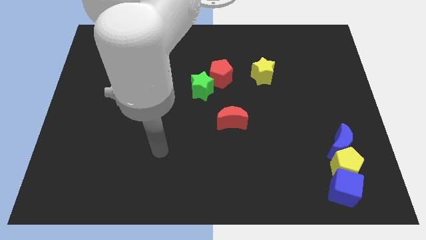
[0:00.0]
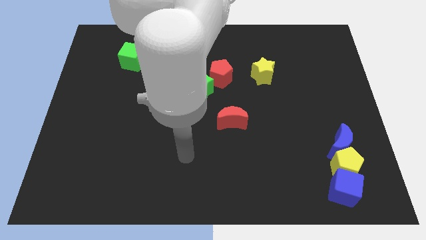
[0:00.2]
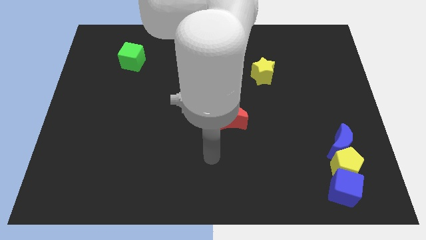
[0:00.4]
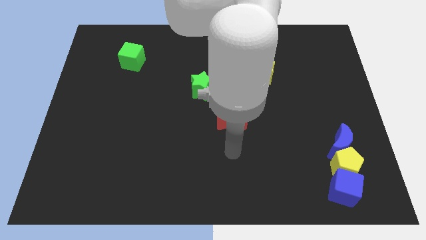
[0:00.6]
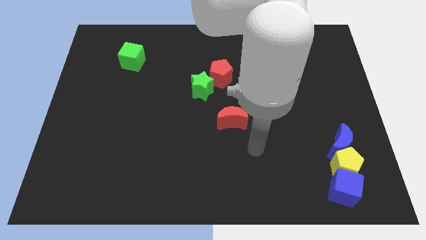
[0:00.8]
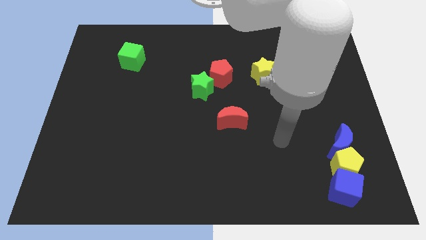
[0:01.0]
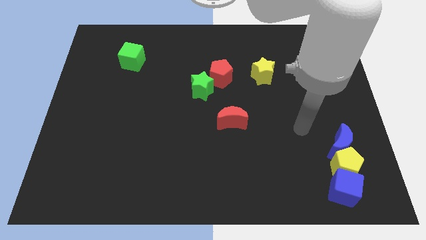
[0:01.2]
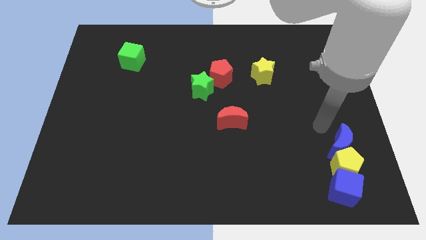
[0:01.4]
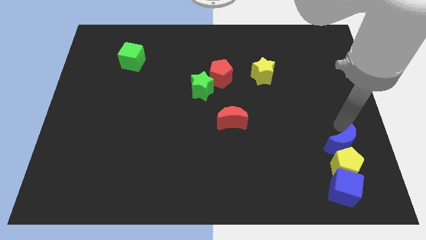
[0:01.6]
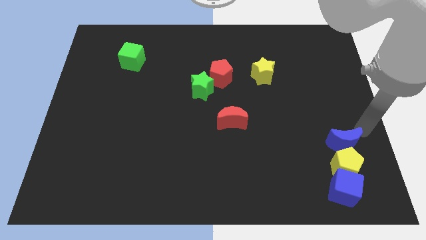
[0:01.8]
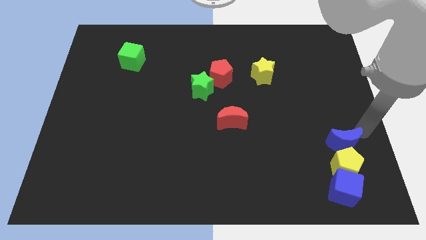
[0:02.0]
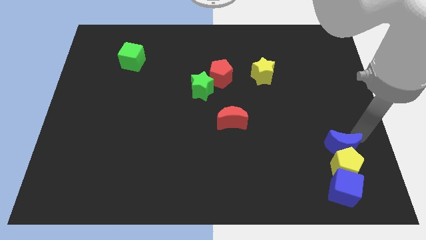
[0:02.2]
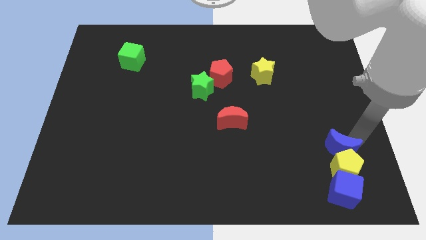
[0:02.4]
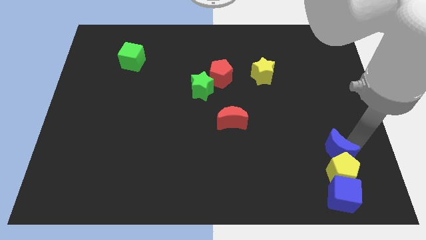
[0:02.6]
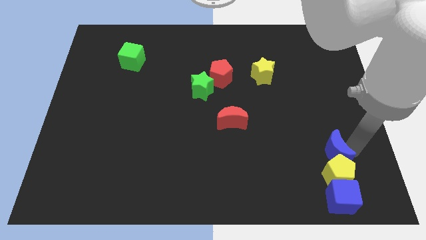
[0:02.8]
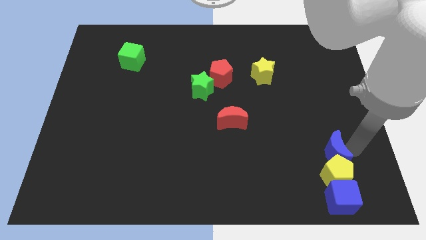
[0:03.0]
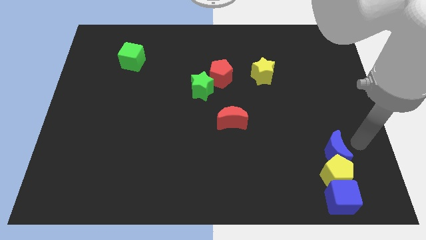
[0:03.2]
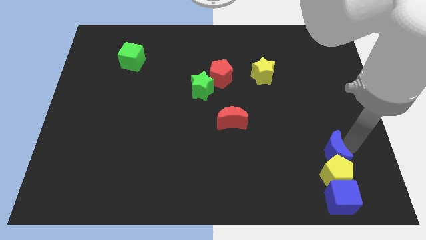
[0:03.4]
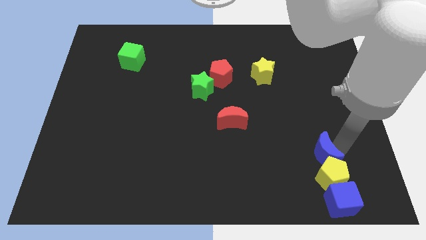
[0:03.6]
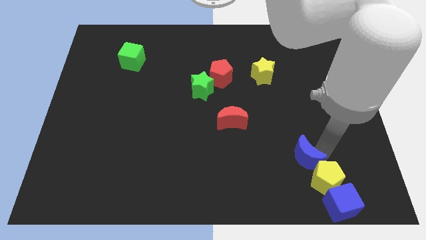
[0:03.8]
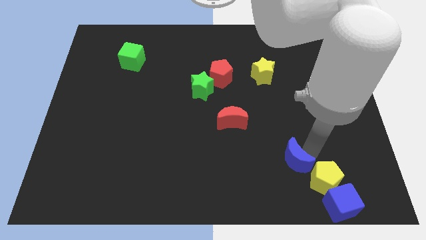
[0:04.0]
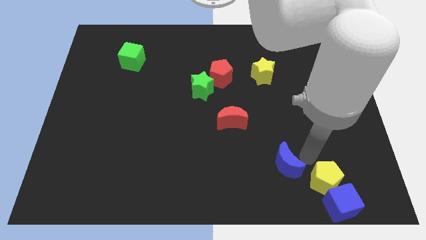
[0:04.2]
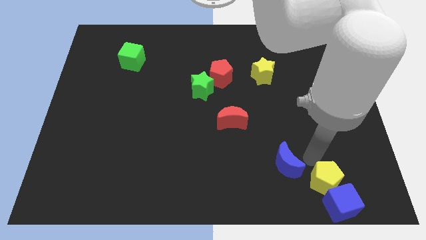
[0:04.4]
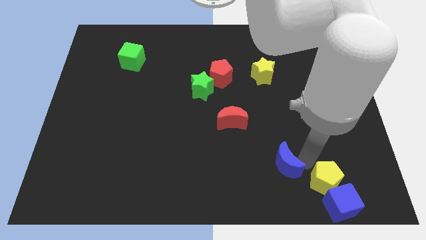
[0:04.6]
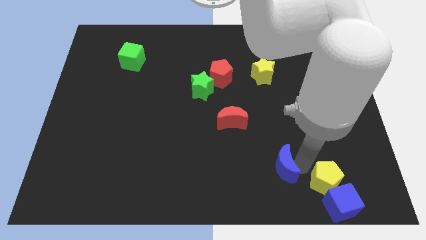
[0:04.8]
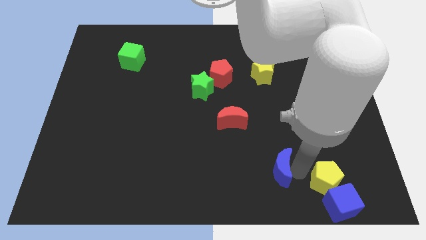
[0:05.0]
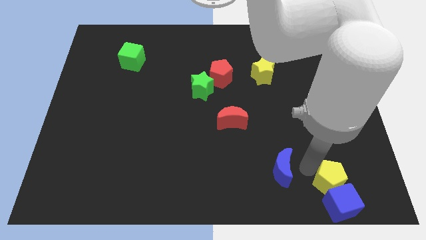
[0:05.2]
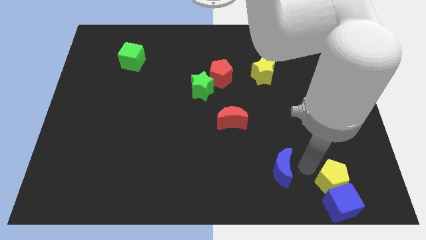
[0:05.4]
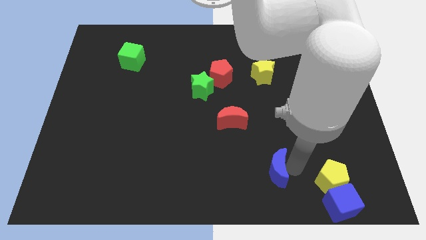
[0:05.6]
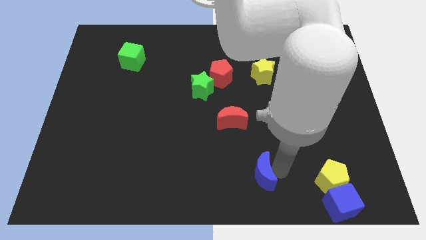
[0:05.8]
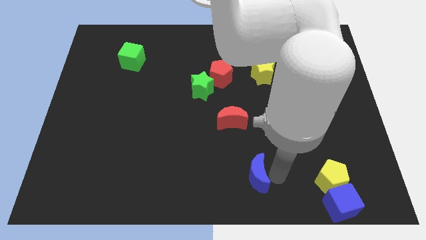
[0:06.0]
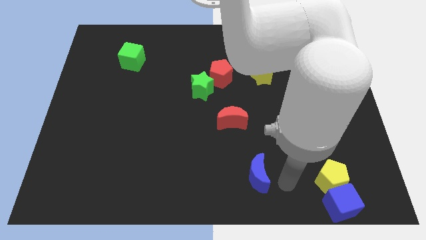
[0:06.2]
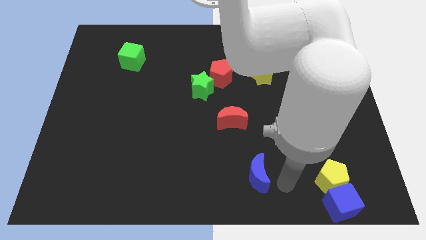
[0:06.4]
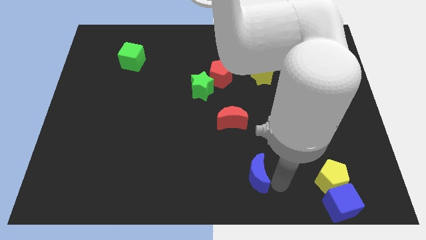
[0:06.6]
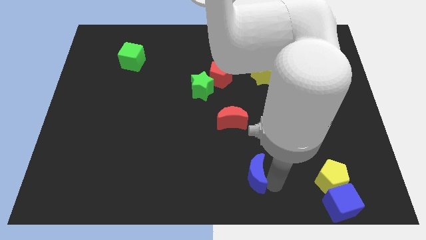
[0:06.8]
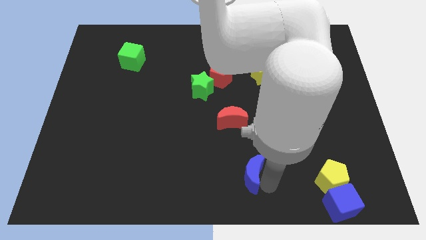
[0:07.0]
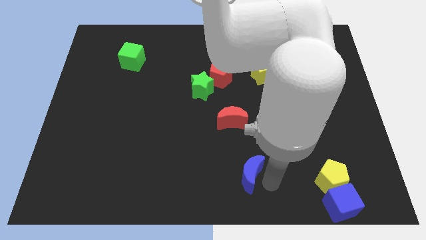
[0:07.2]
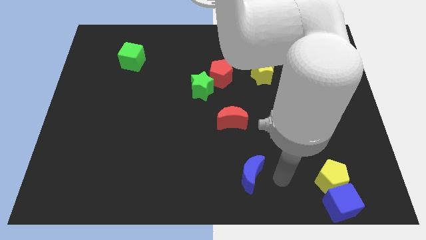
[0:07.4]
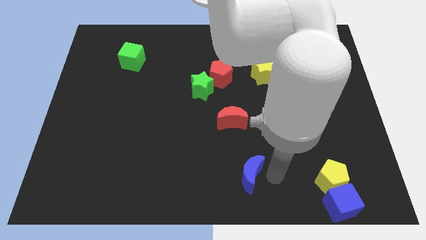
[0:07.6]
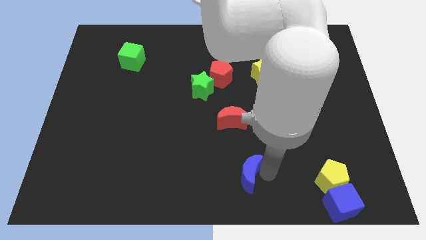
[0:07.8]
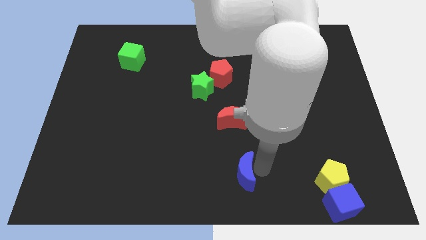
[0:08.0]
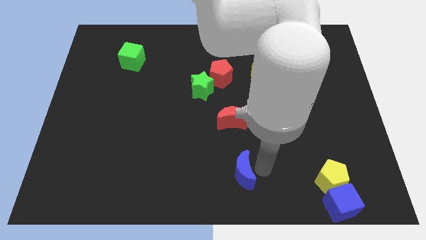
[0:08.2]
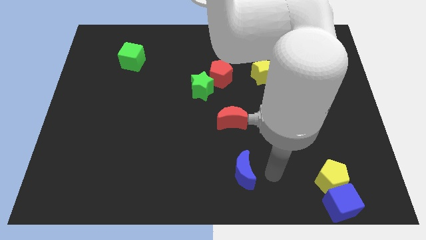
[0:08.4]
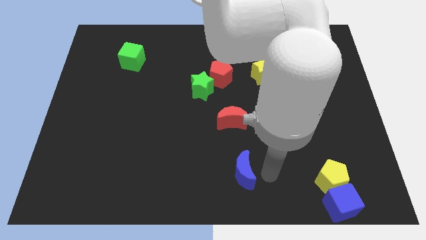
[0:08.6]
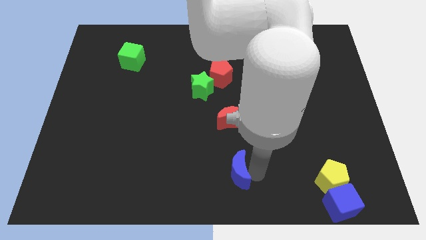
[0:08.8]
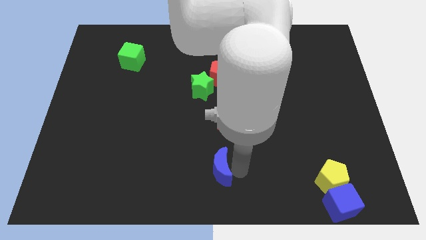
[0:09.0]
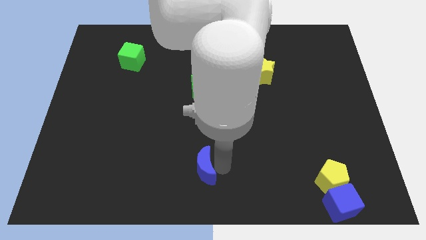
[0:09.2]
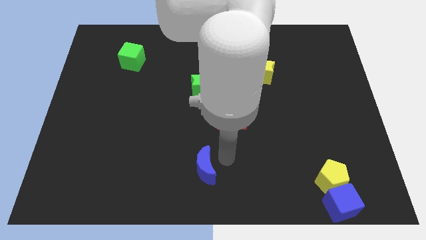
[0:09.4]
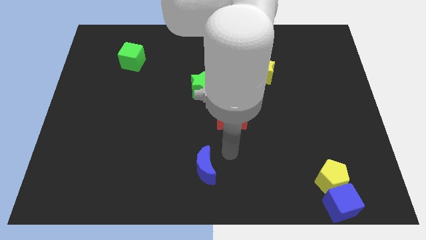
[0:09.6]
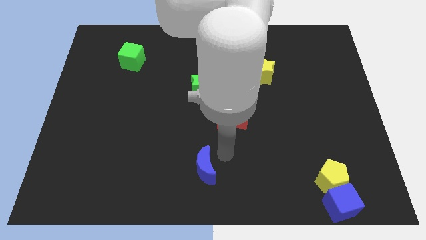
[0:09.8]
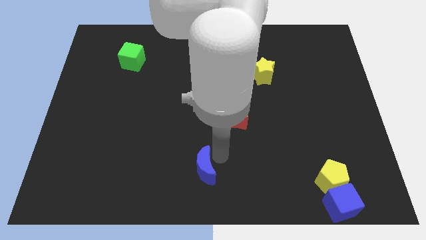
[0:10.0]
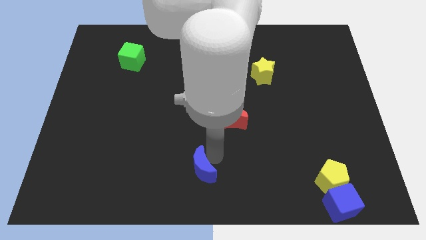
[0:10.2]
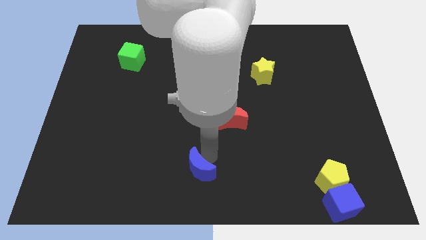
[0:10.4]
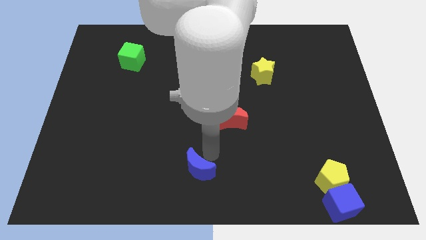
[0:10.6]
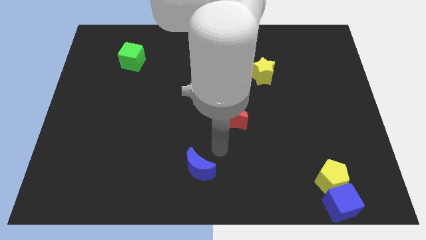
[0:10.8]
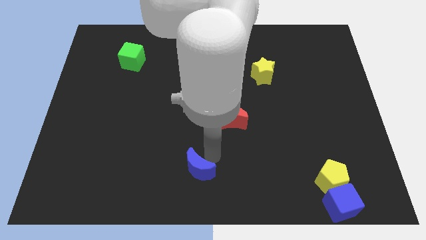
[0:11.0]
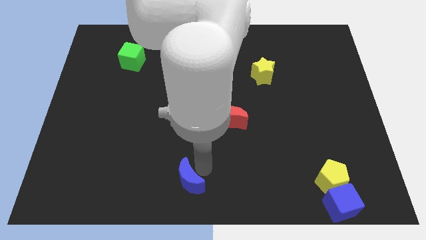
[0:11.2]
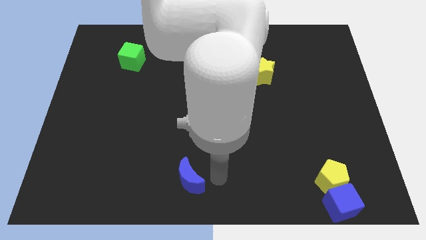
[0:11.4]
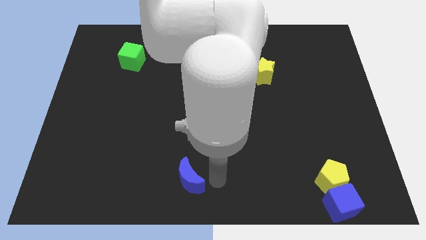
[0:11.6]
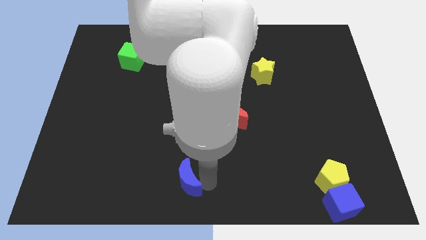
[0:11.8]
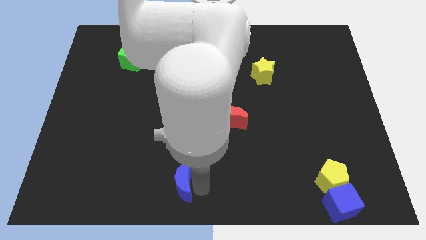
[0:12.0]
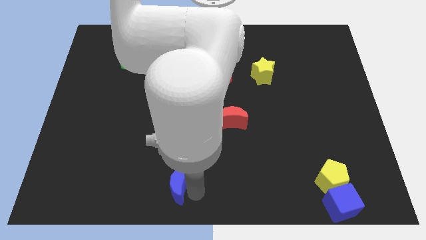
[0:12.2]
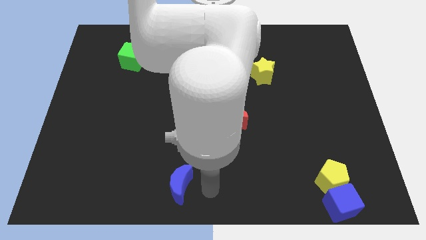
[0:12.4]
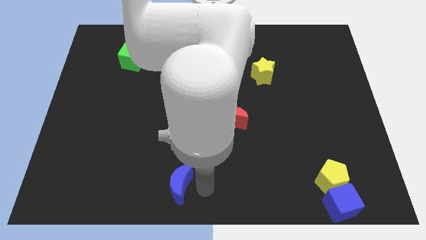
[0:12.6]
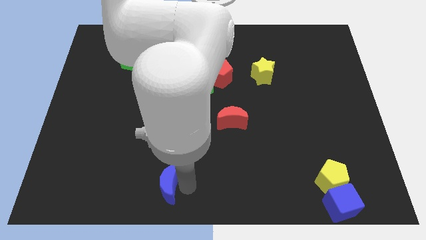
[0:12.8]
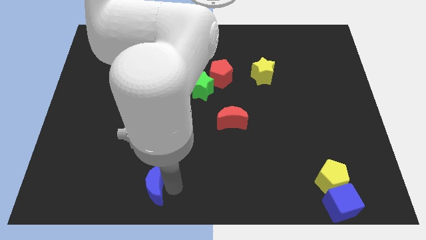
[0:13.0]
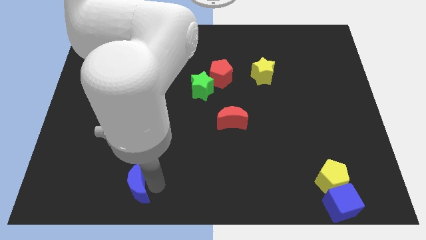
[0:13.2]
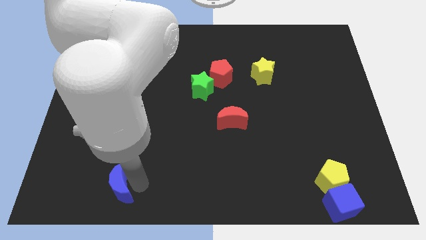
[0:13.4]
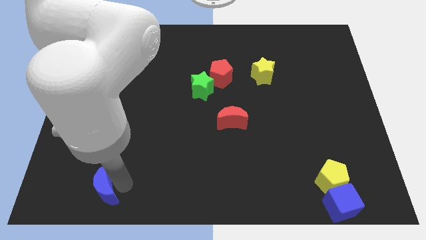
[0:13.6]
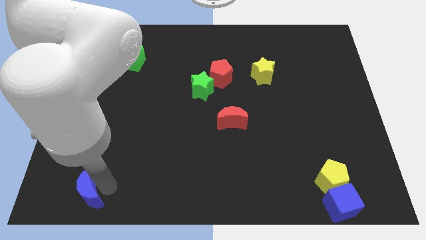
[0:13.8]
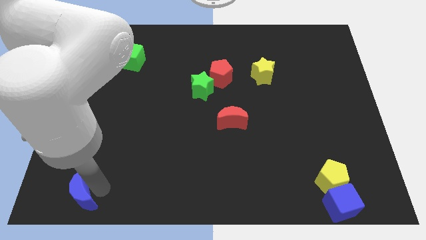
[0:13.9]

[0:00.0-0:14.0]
slide the blue moon to the bottom left of the board
